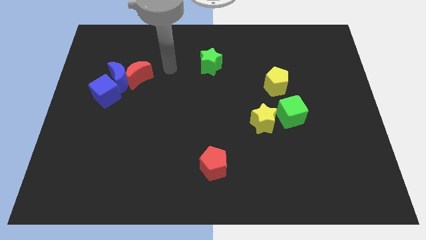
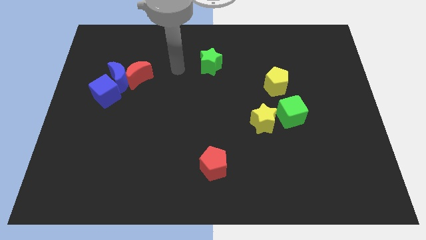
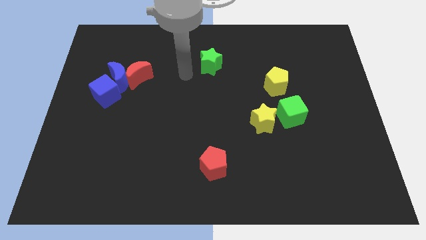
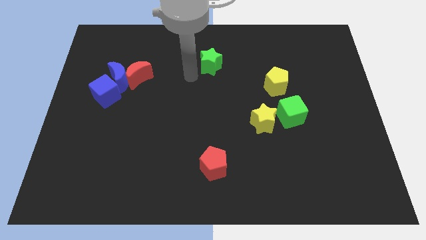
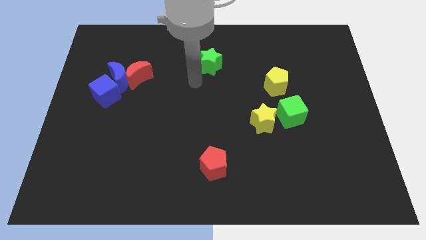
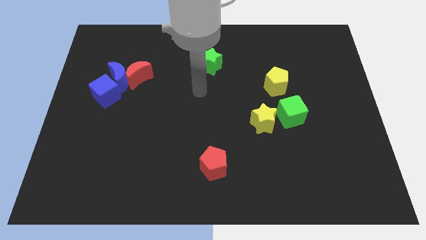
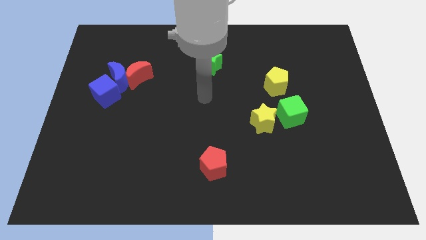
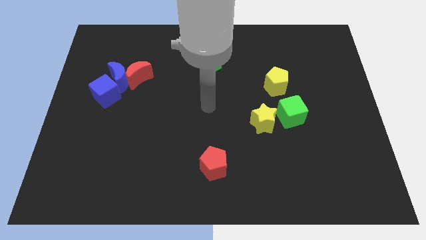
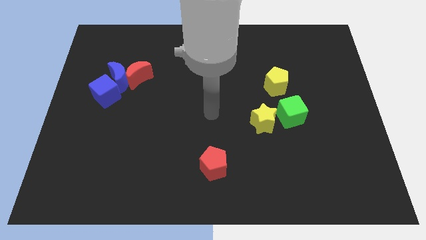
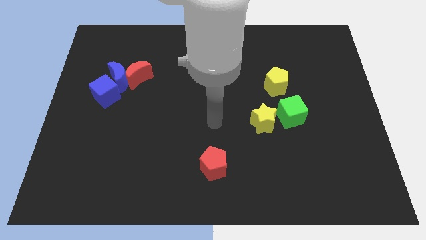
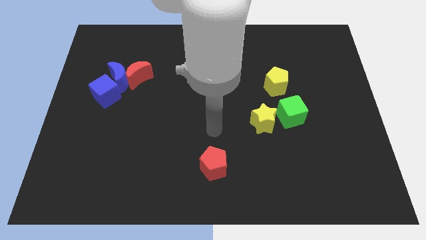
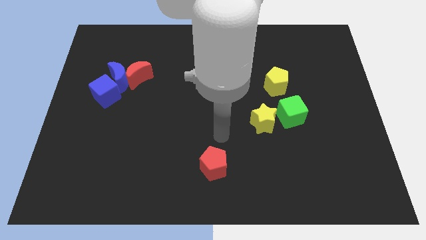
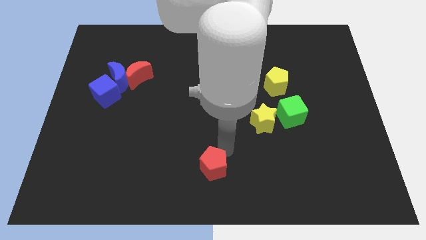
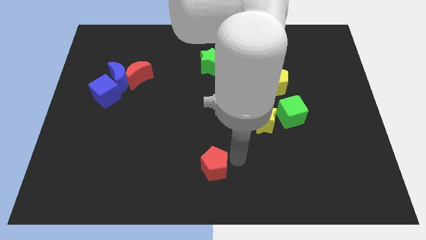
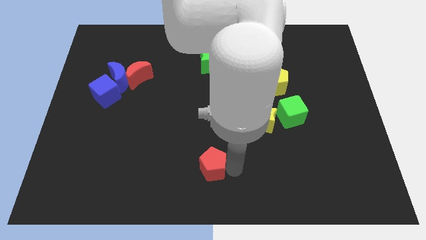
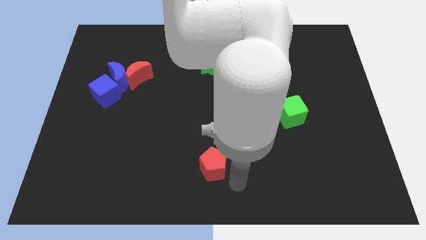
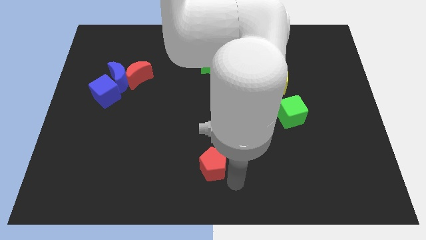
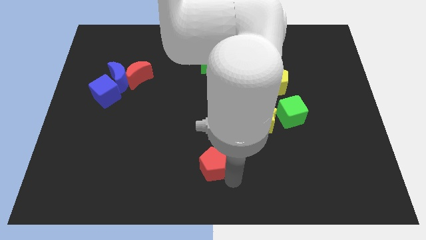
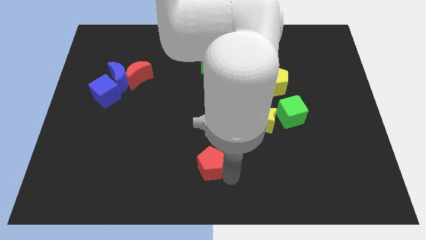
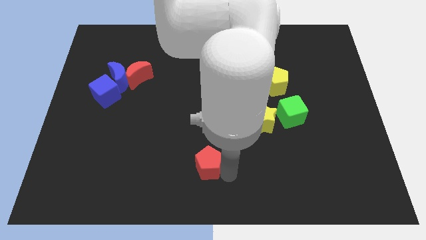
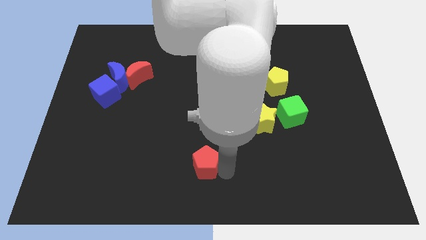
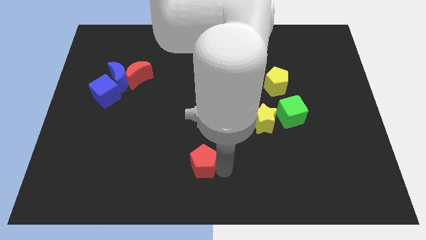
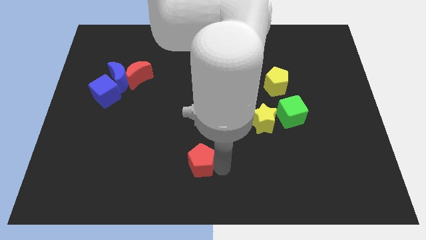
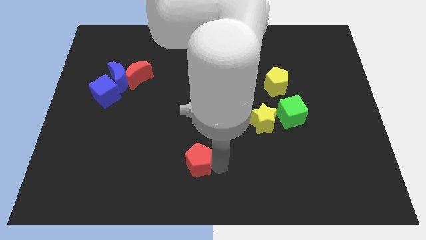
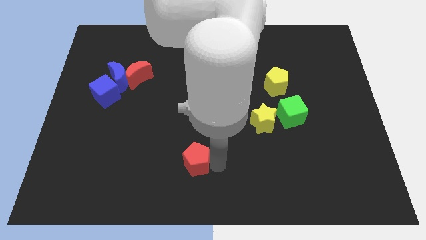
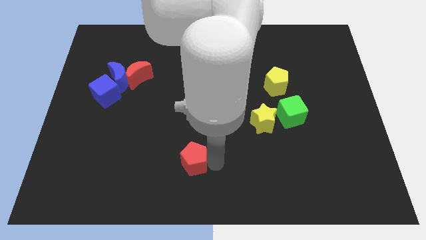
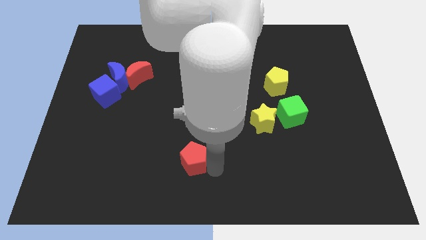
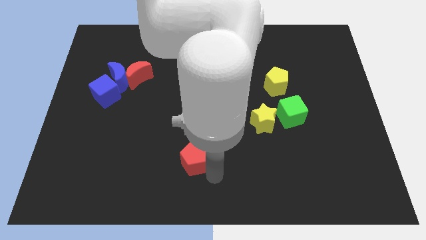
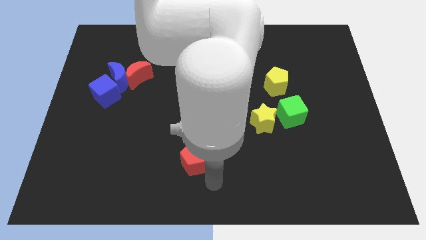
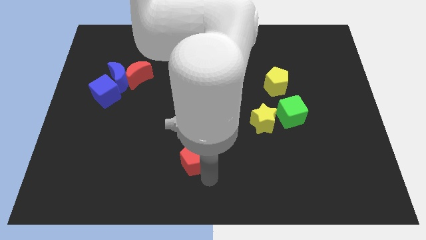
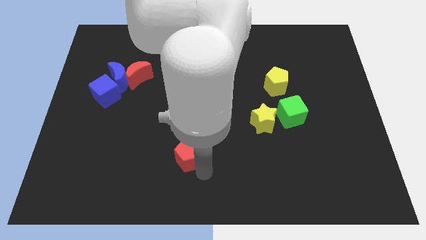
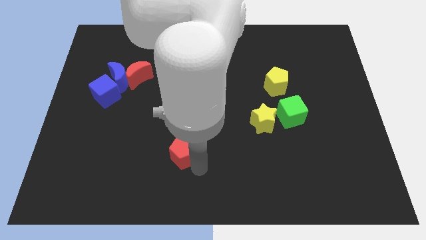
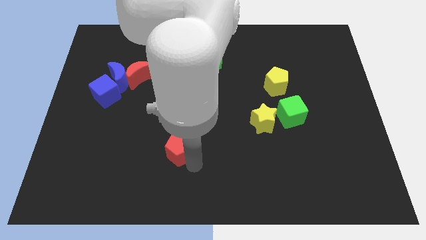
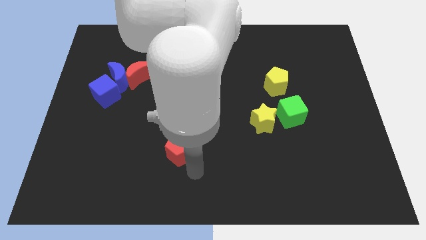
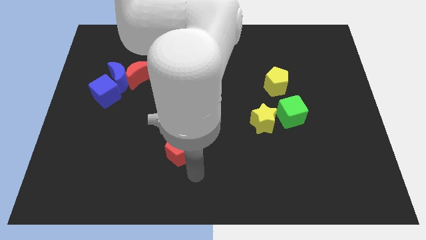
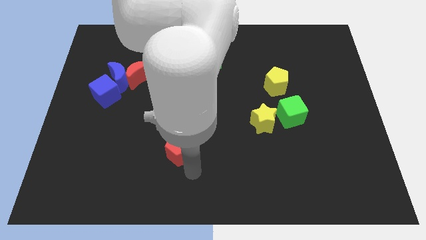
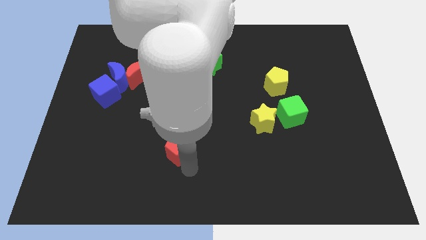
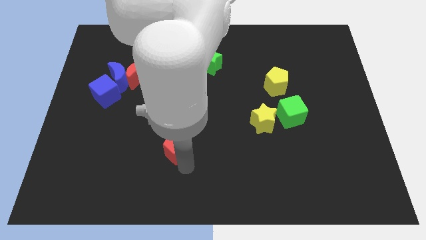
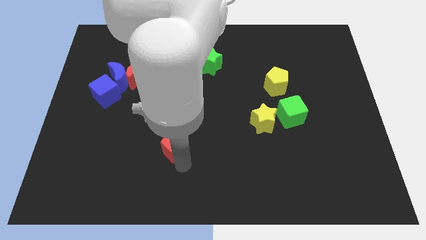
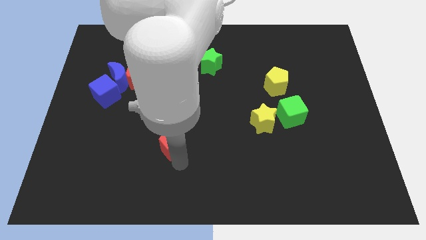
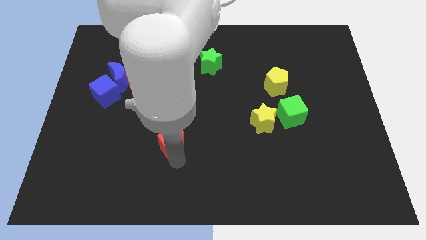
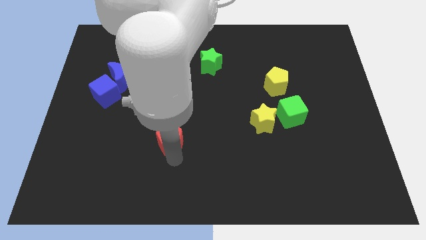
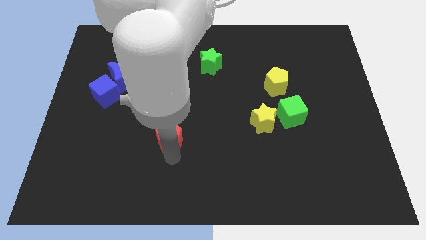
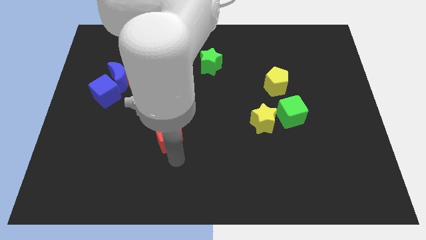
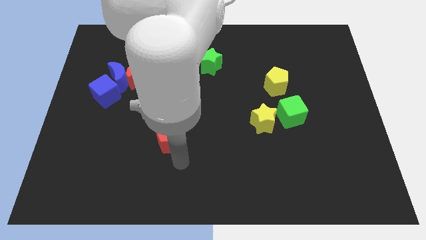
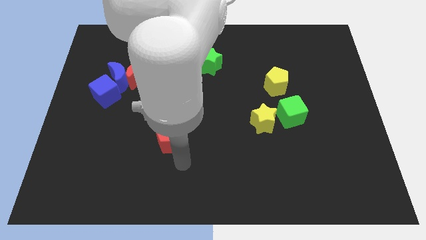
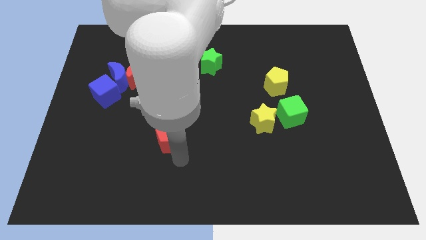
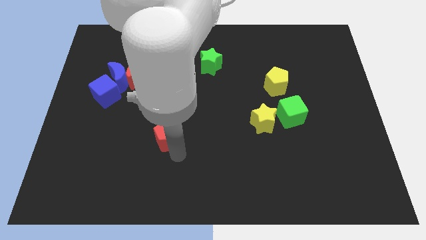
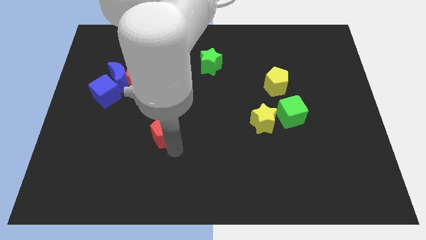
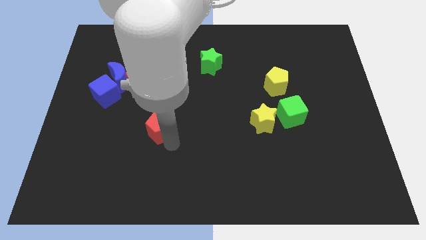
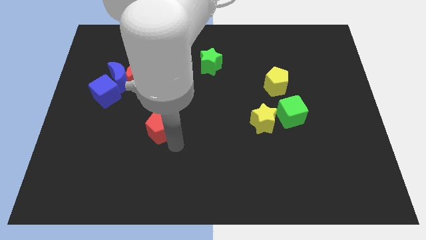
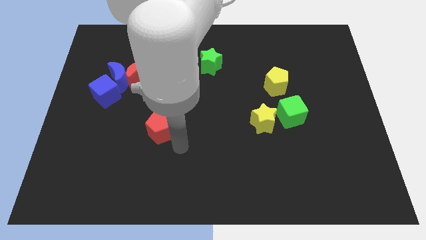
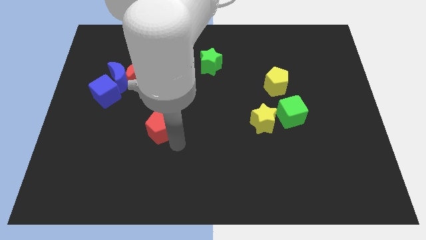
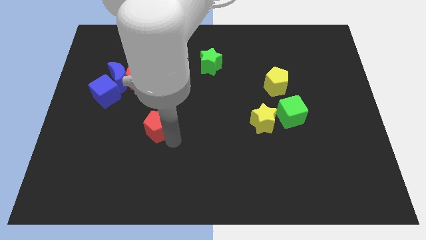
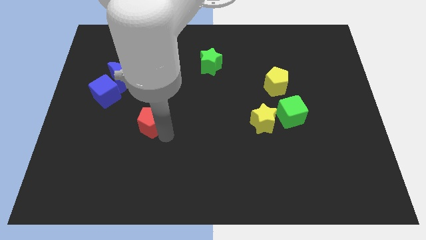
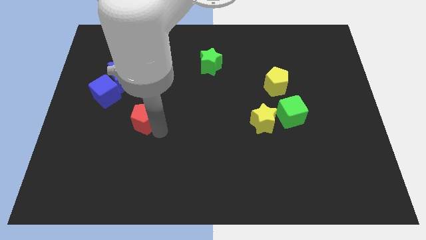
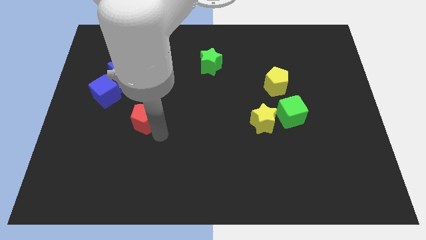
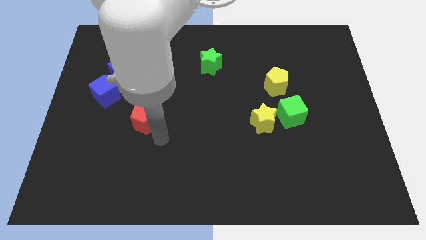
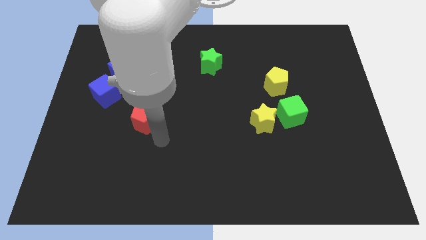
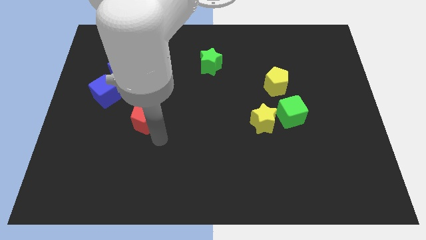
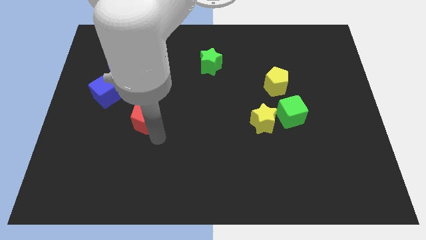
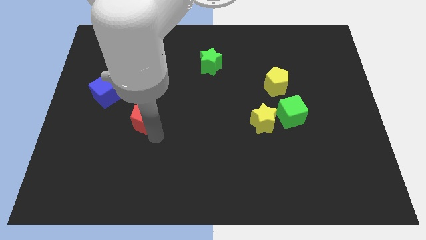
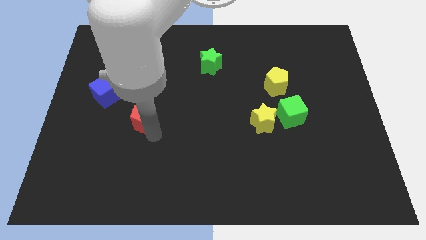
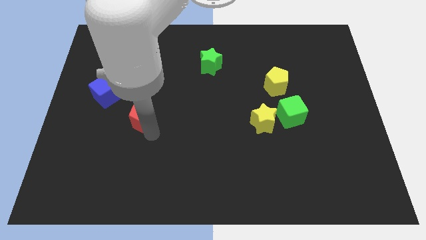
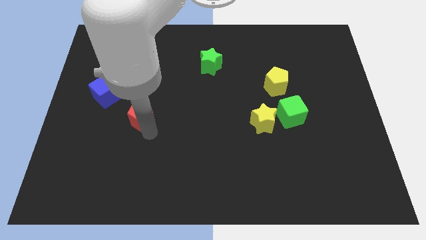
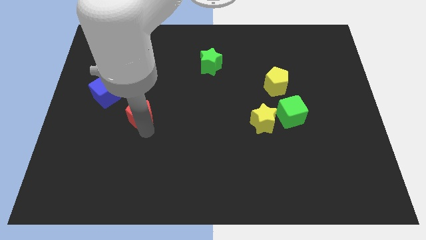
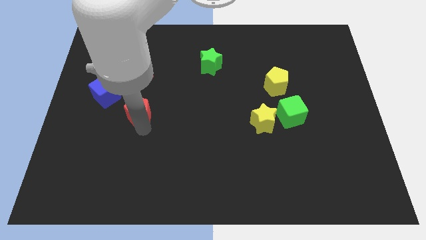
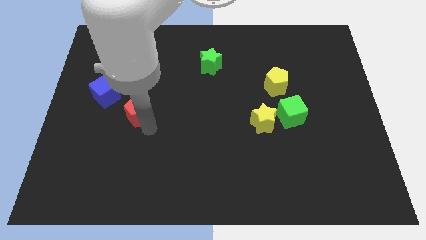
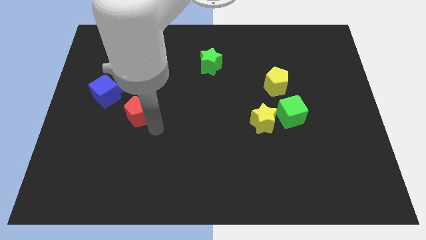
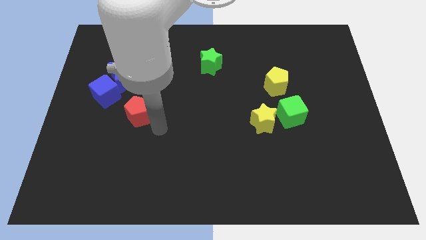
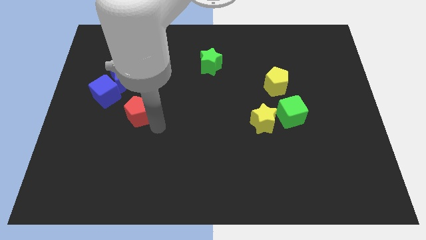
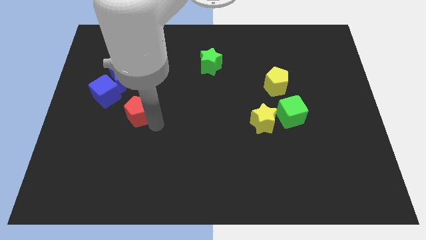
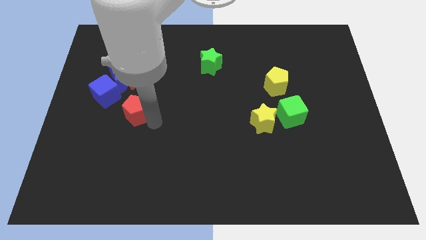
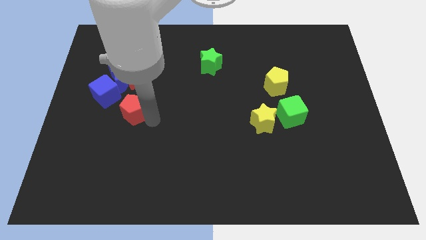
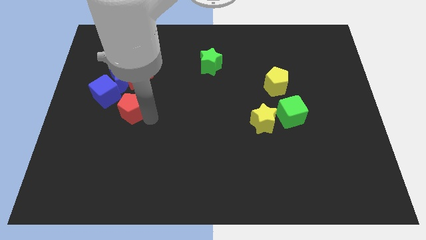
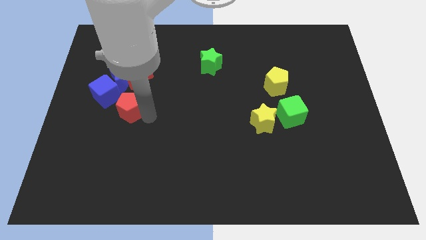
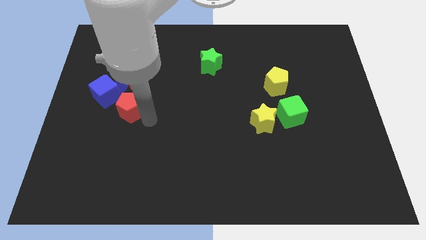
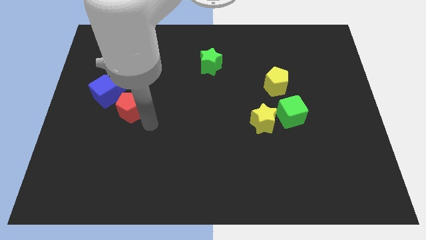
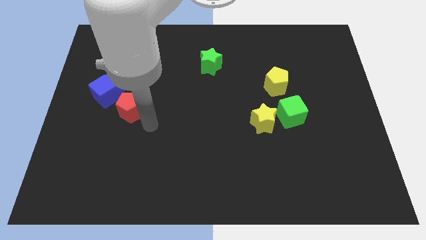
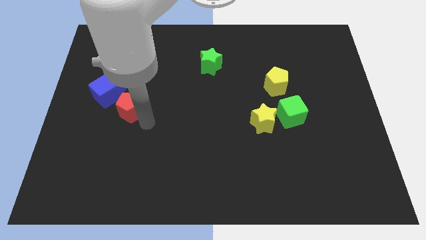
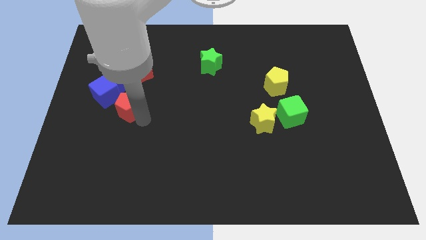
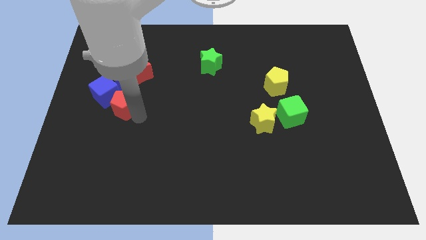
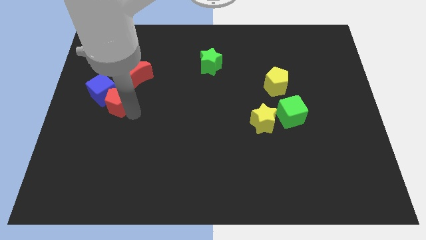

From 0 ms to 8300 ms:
push the red pentagon next to the blue cube
